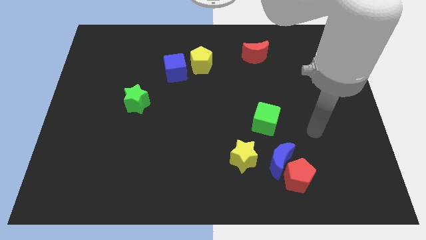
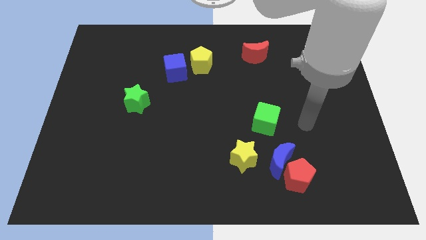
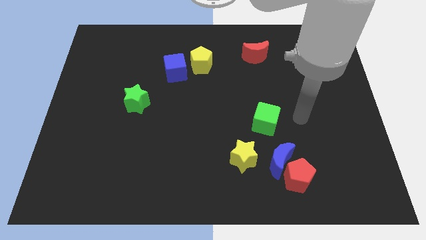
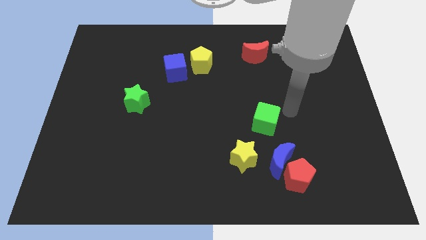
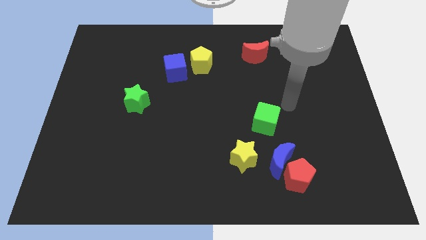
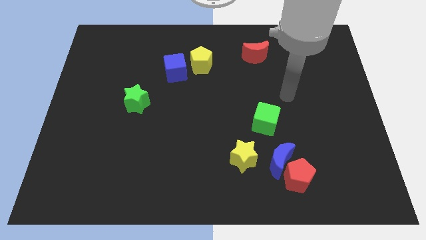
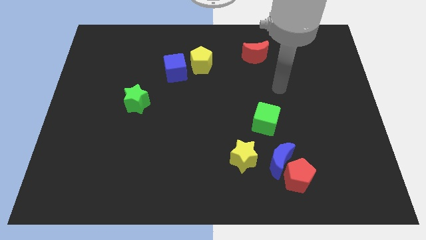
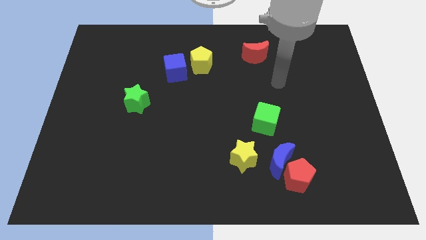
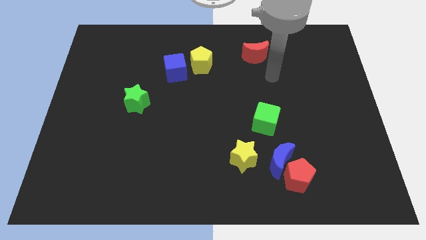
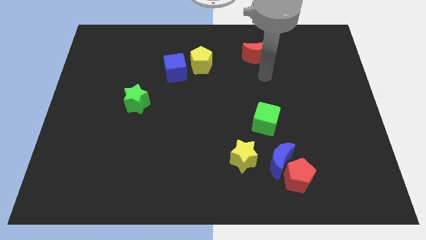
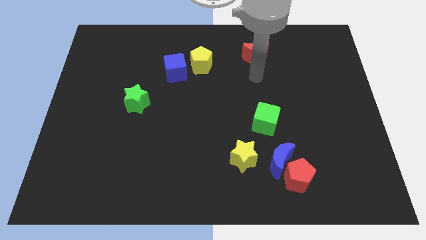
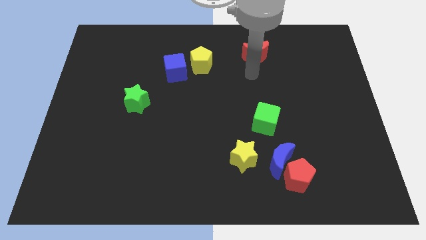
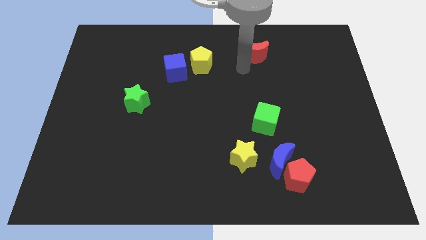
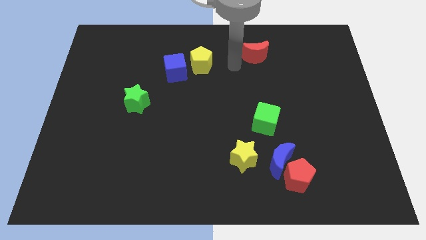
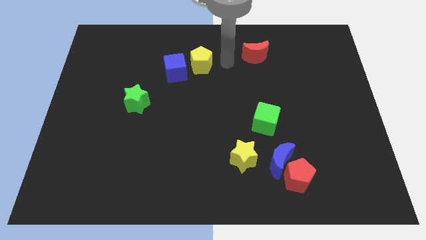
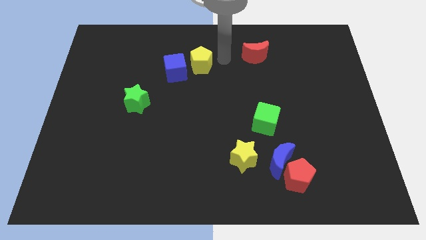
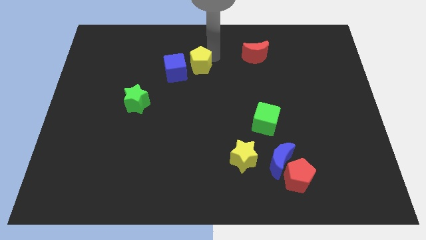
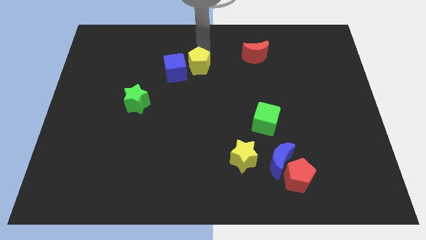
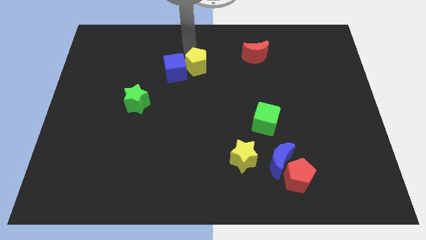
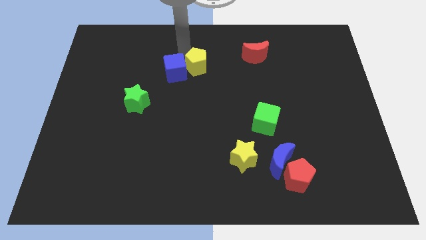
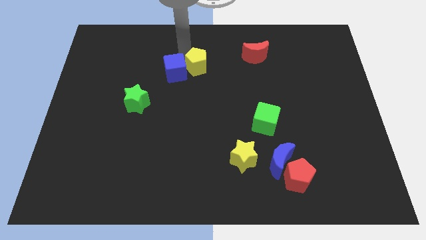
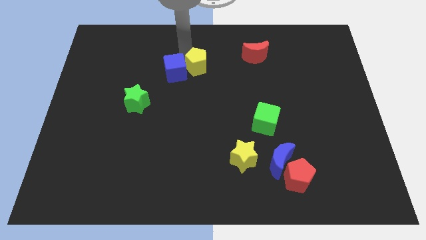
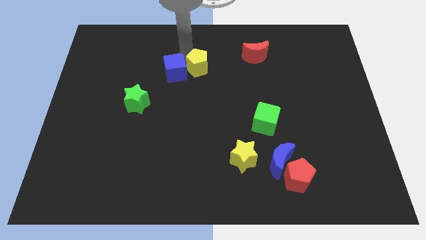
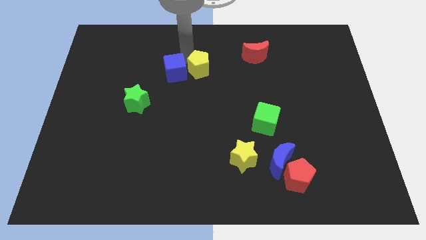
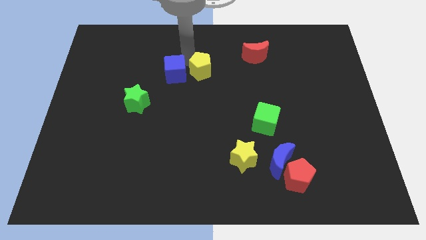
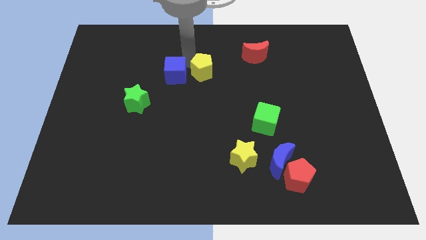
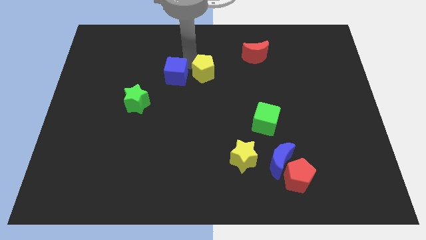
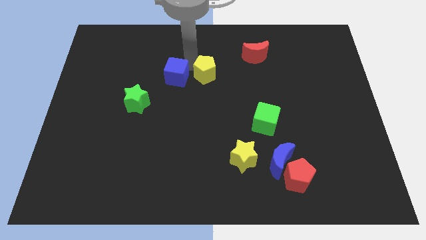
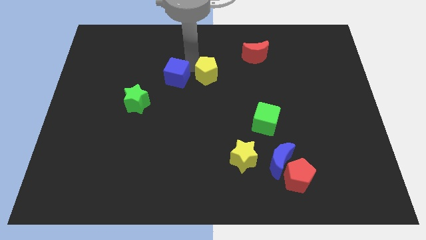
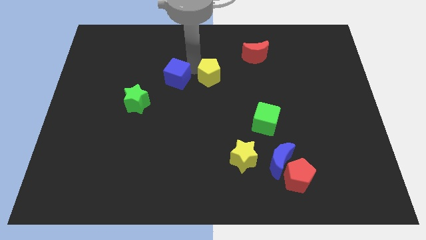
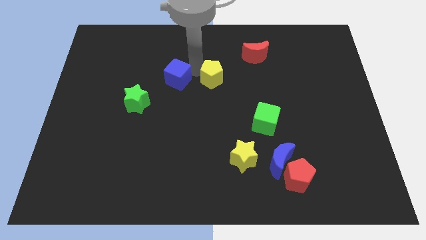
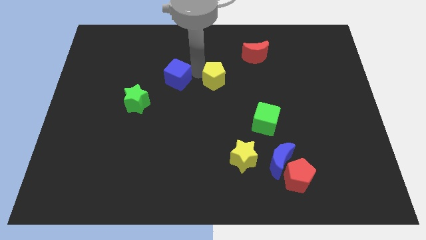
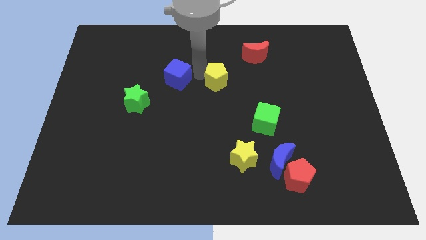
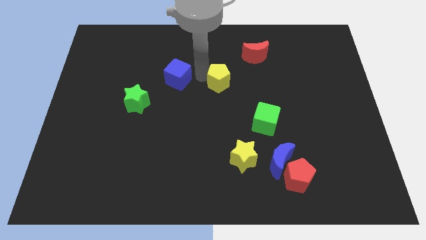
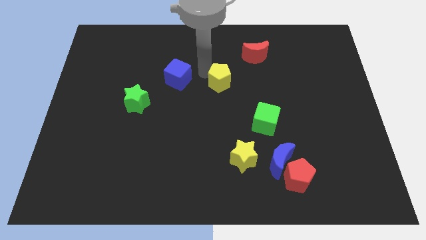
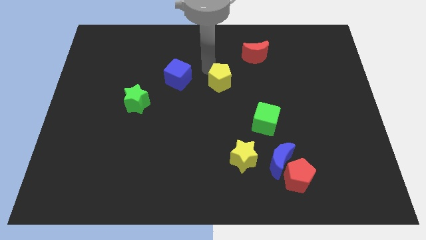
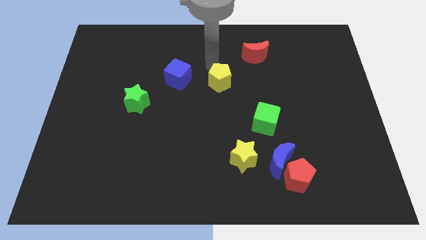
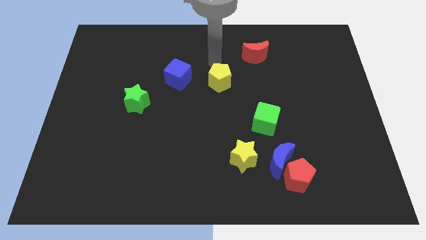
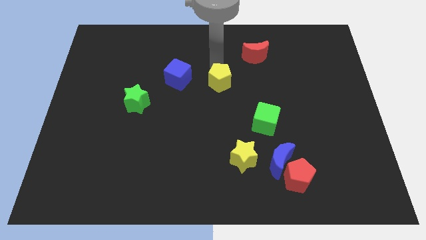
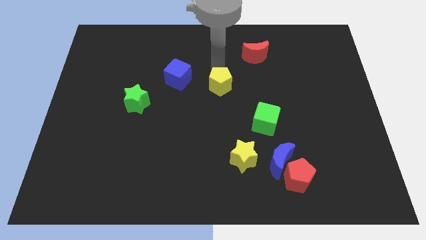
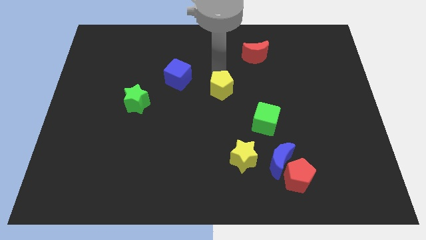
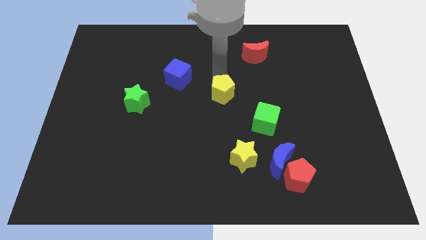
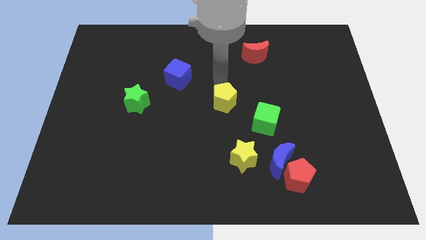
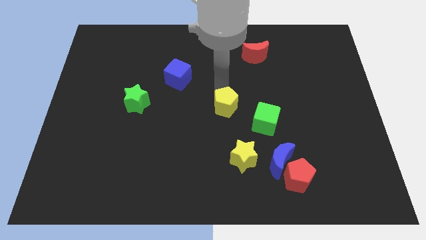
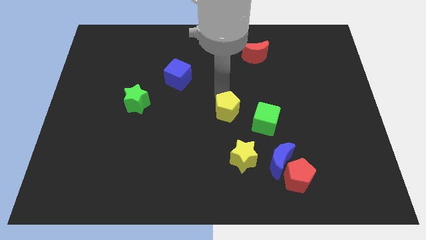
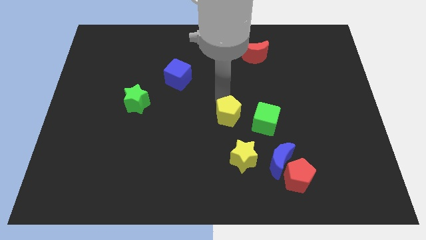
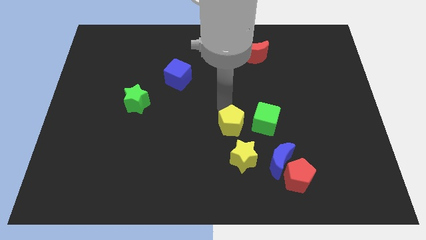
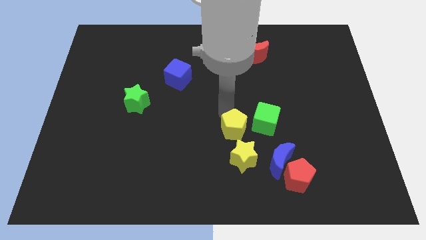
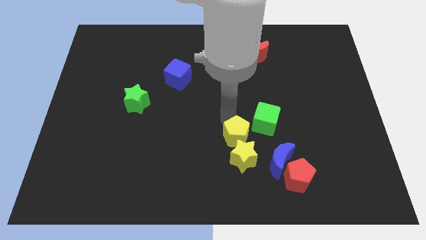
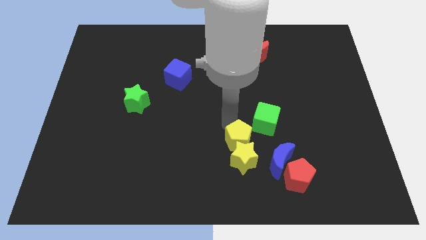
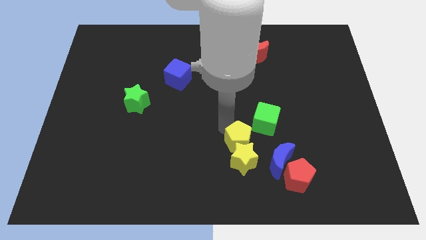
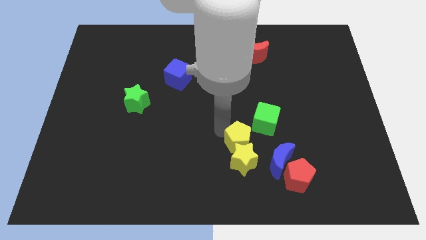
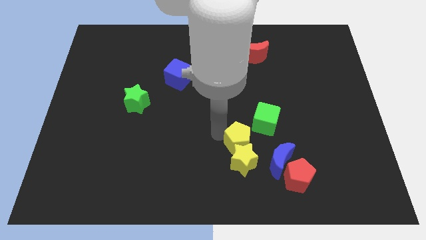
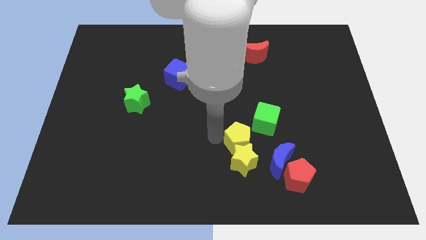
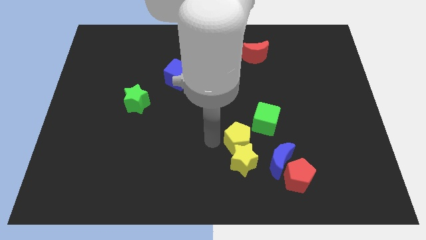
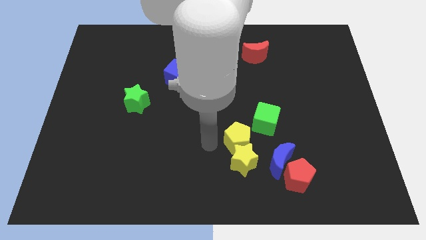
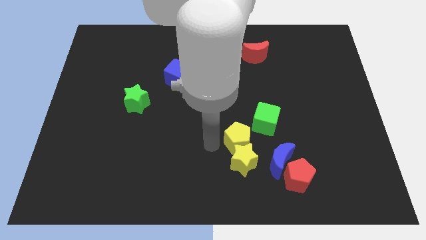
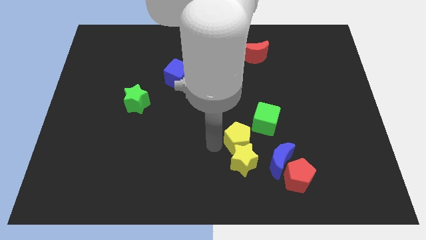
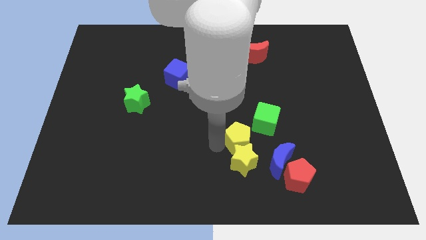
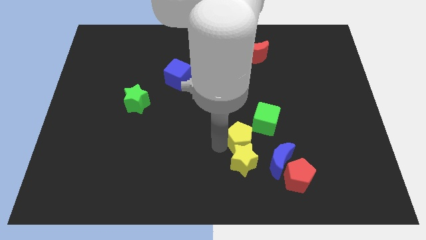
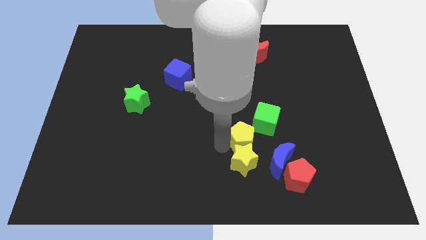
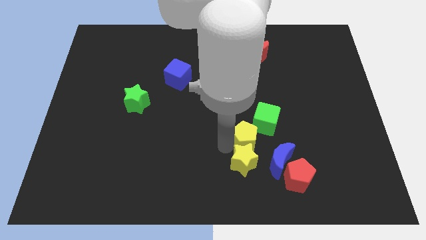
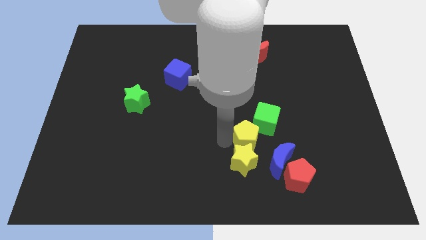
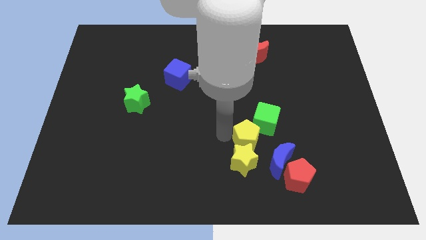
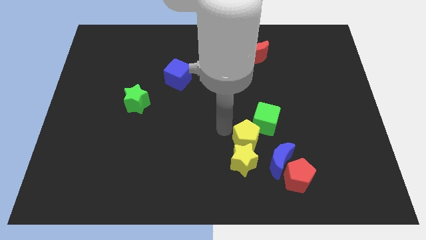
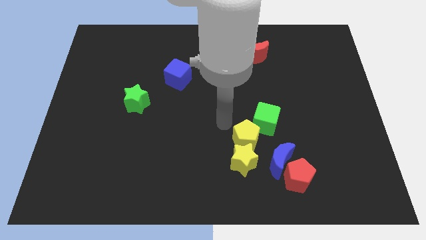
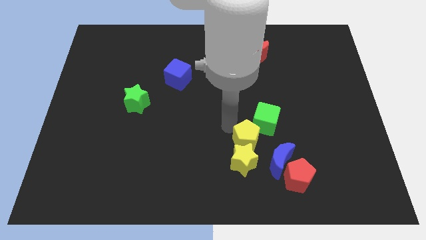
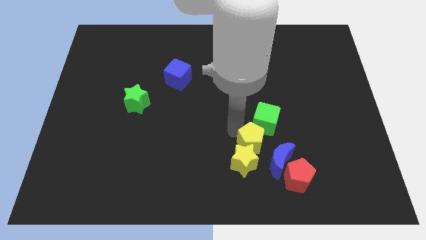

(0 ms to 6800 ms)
push the yellow pentagon to the top left of the red pentagon

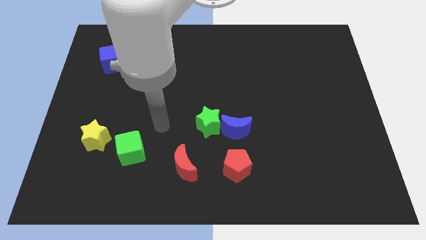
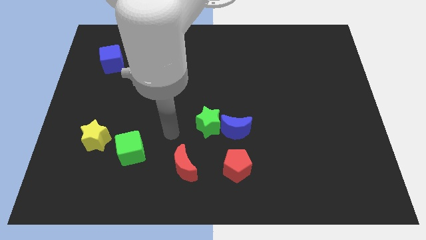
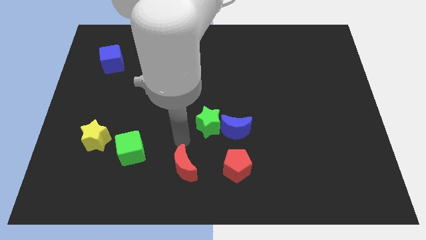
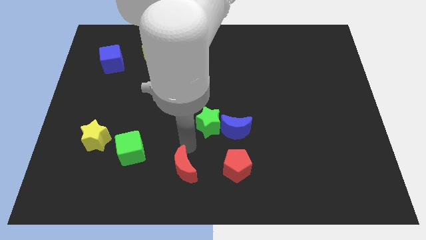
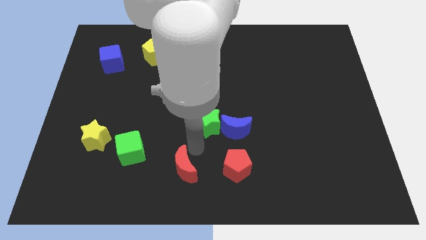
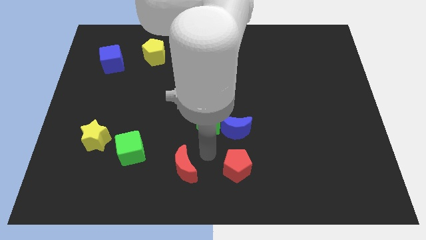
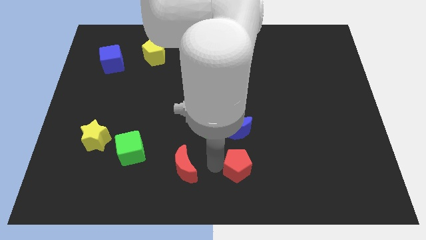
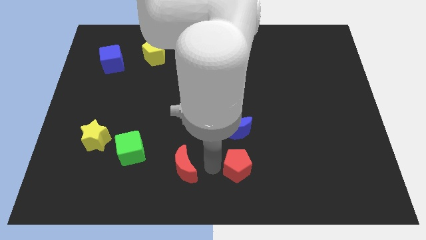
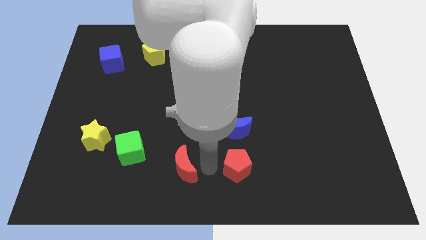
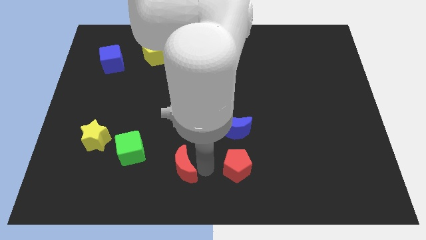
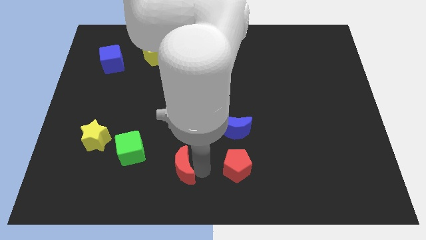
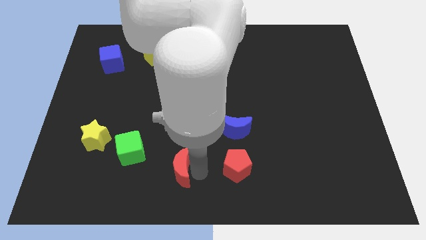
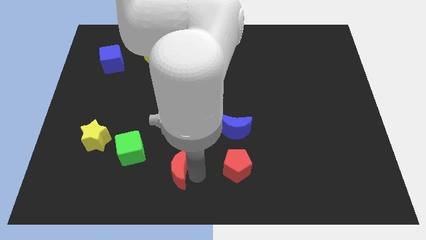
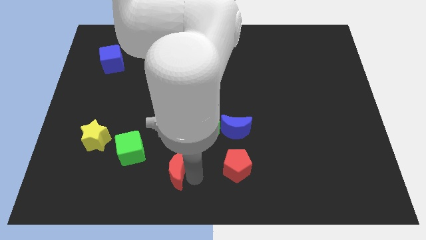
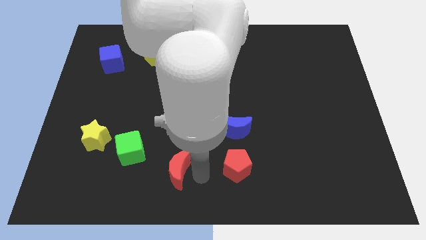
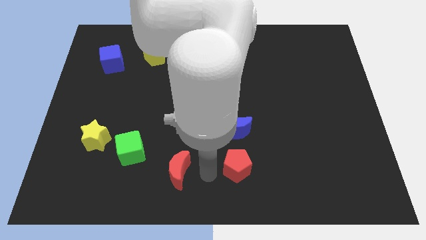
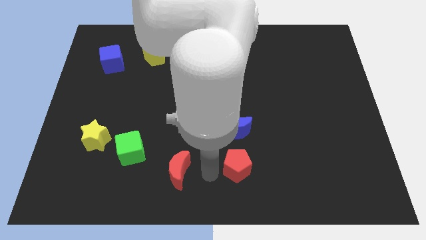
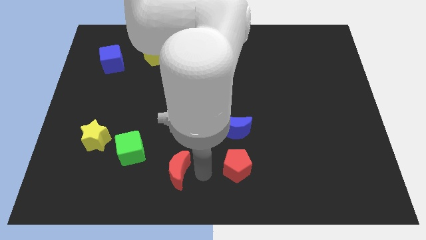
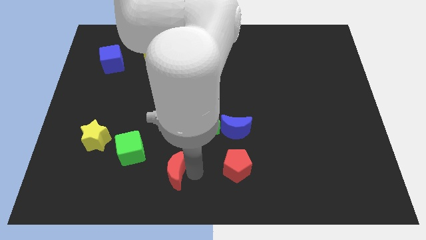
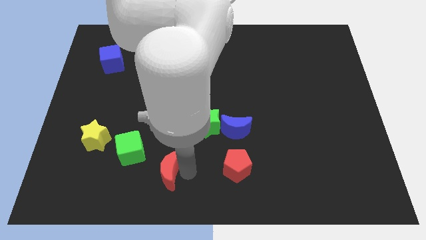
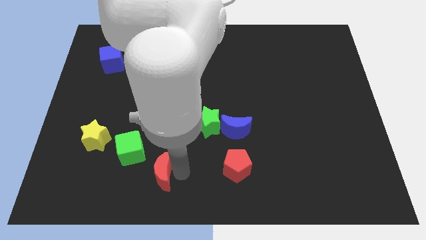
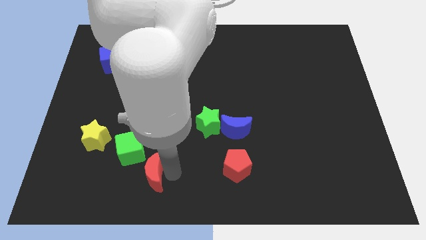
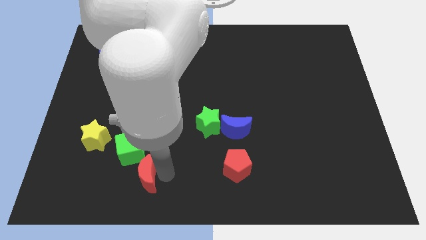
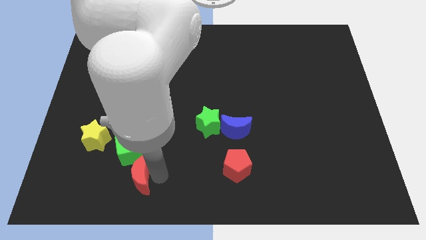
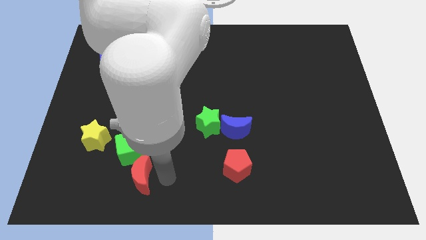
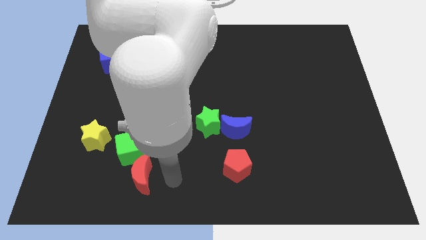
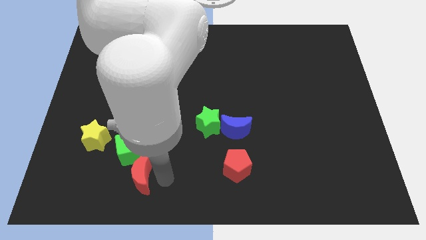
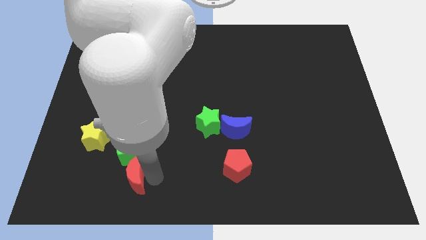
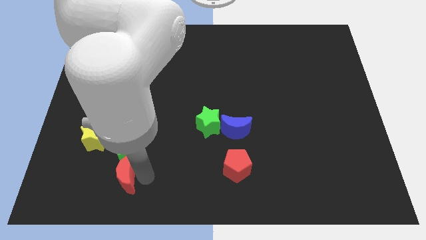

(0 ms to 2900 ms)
move the red moon to the bottom left side of the green cube
